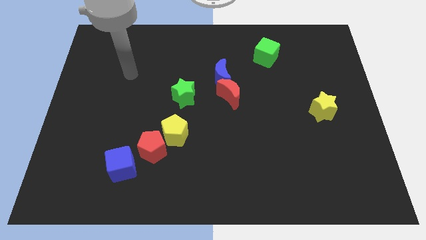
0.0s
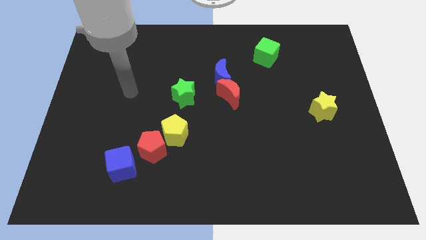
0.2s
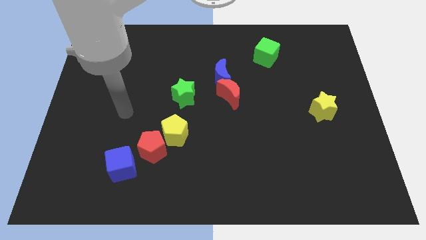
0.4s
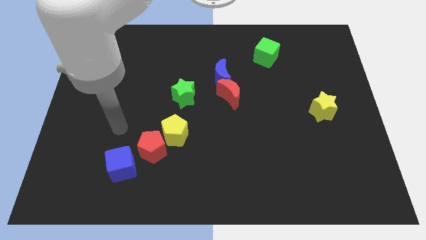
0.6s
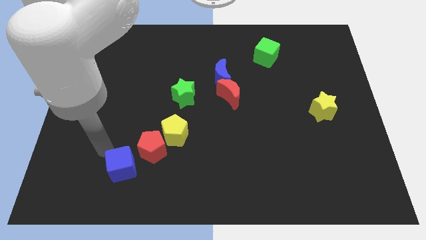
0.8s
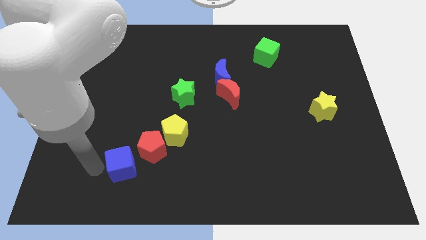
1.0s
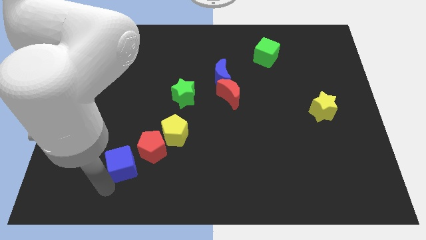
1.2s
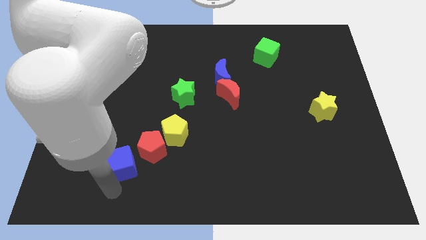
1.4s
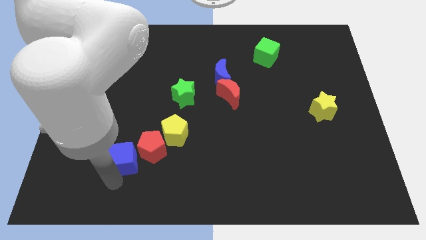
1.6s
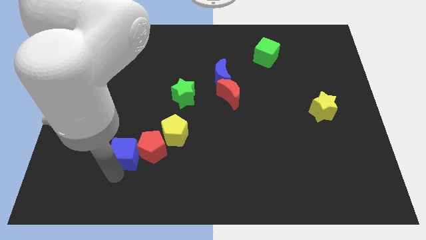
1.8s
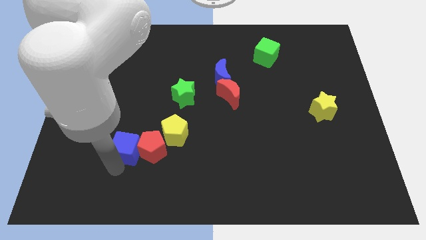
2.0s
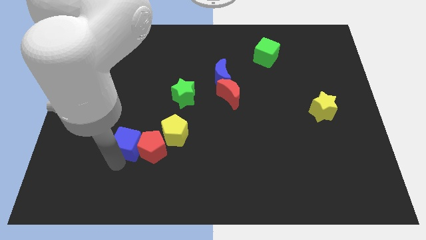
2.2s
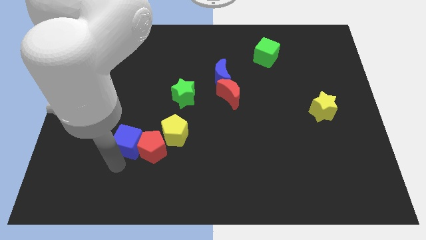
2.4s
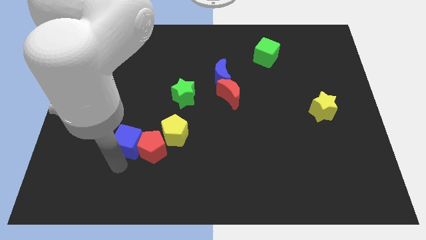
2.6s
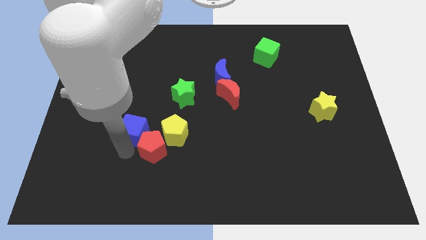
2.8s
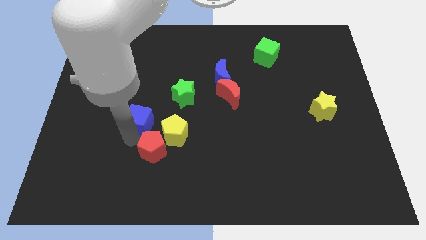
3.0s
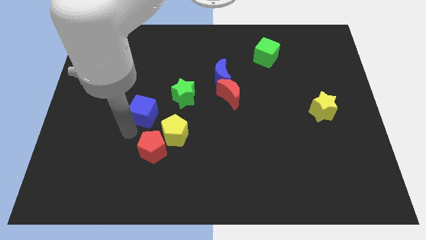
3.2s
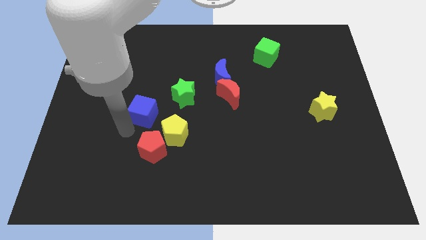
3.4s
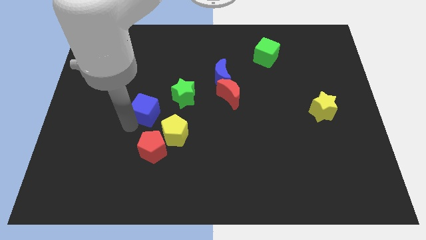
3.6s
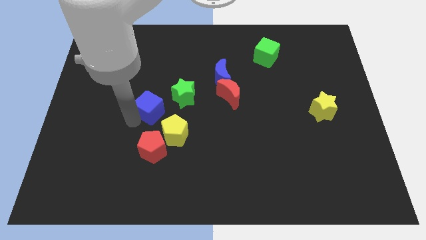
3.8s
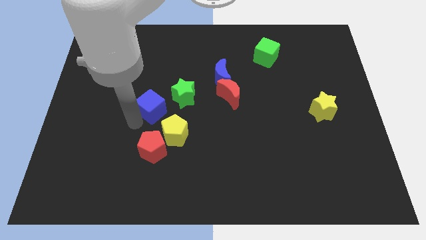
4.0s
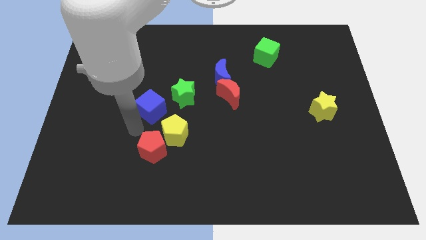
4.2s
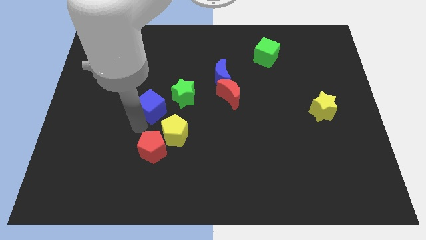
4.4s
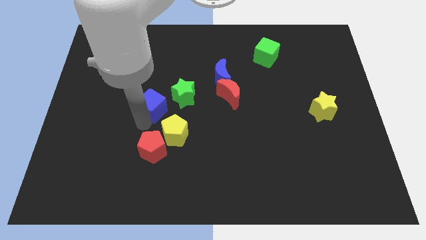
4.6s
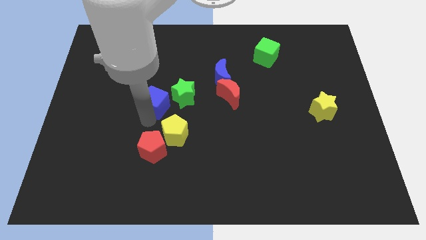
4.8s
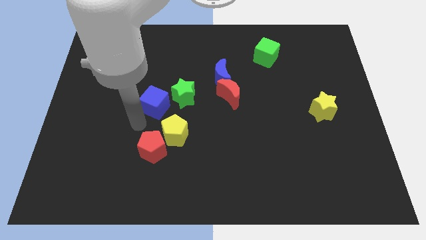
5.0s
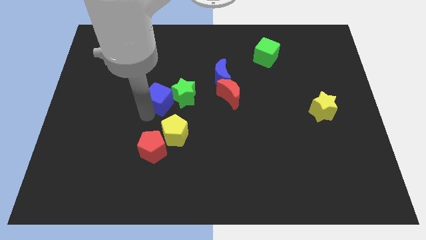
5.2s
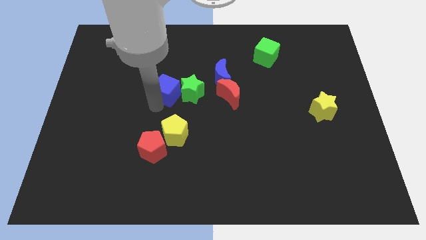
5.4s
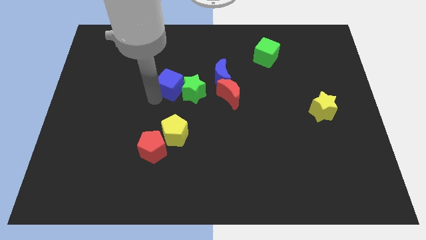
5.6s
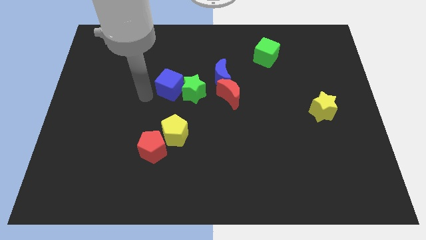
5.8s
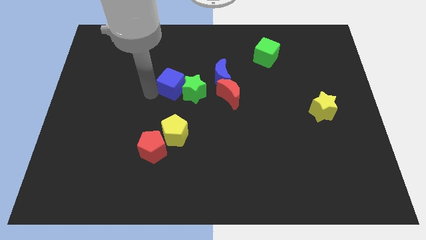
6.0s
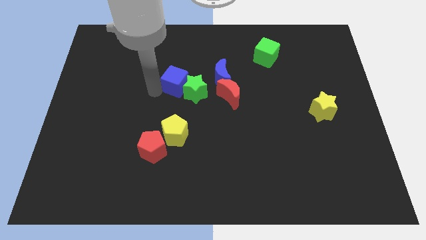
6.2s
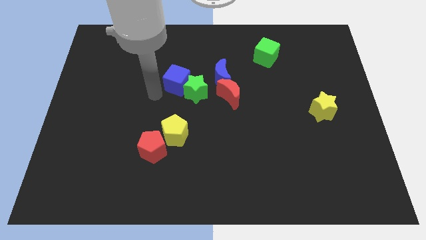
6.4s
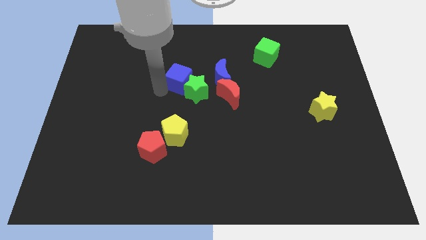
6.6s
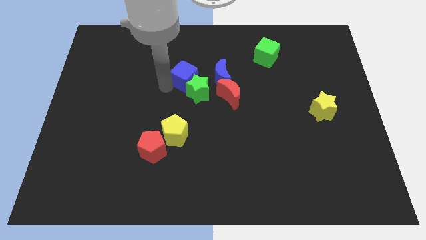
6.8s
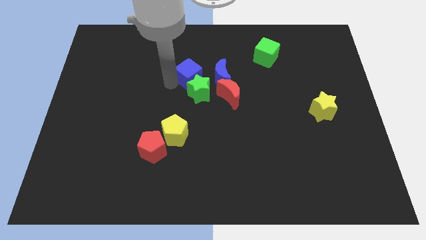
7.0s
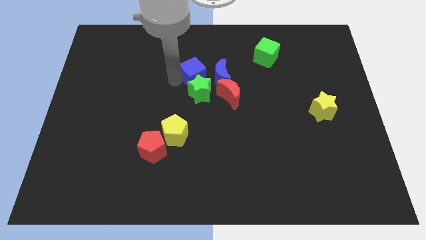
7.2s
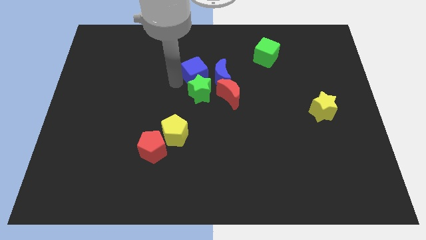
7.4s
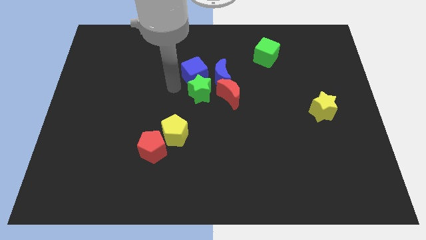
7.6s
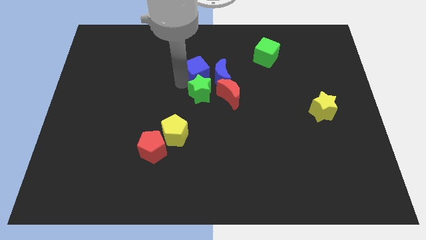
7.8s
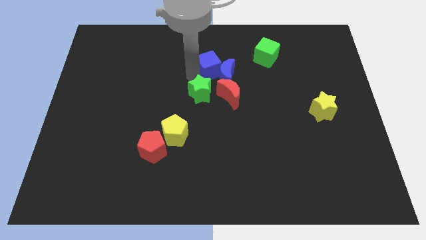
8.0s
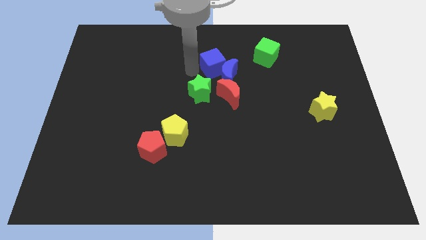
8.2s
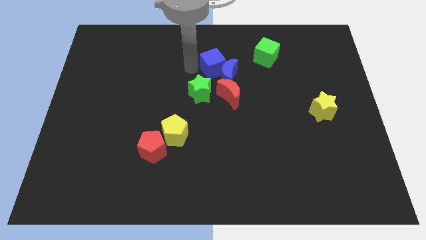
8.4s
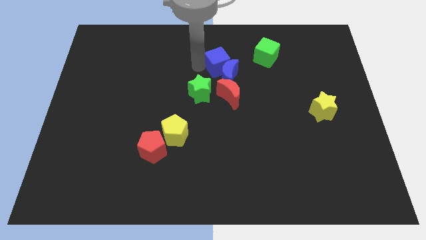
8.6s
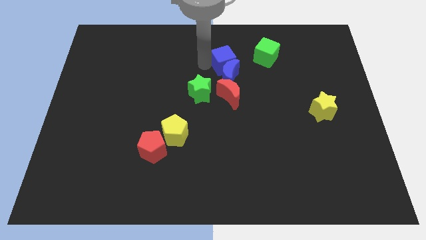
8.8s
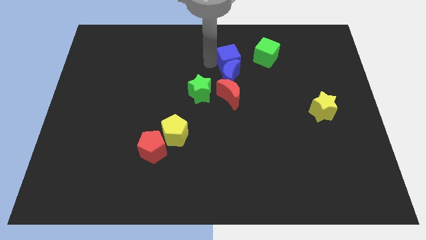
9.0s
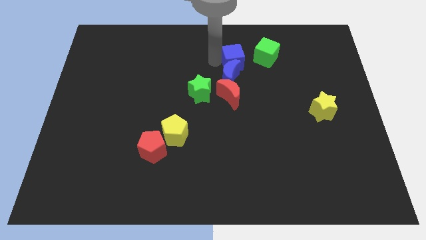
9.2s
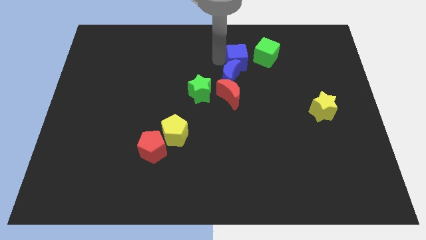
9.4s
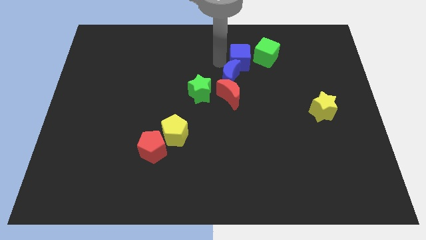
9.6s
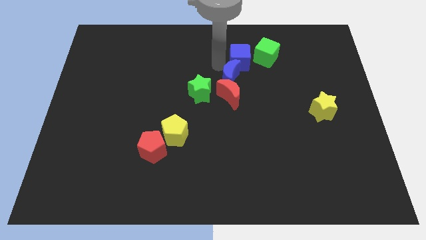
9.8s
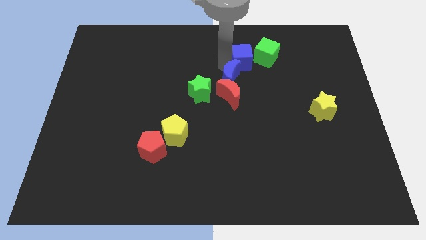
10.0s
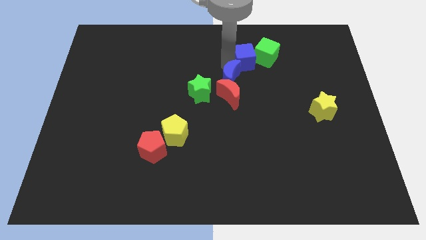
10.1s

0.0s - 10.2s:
slide the blue cube next to the green cube

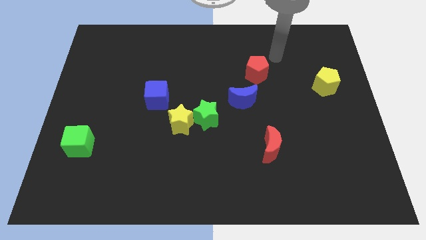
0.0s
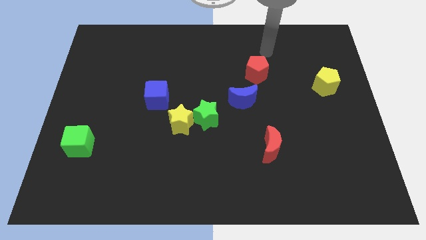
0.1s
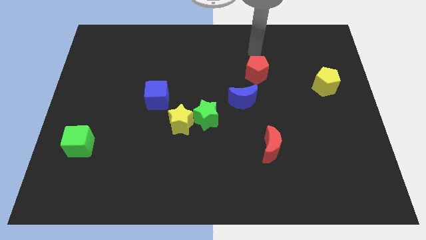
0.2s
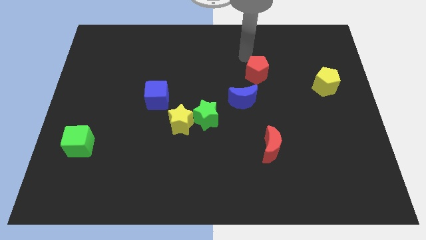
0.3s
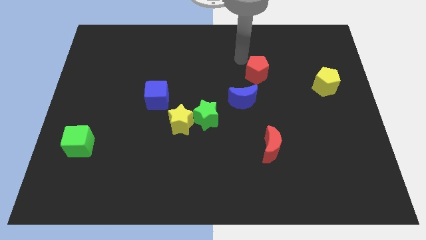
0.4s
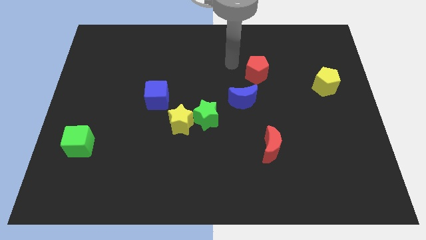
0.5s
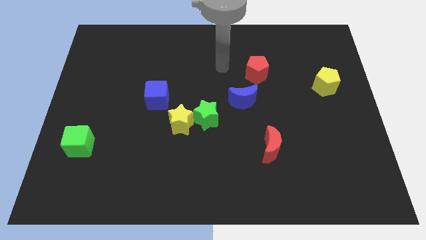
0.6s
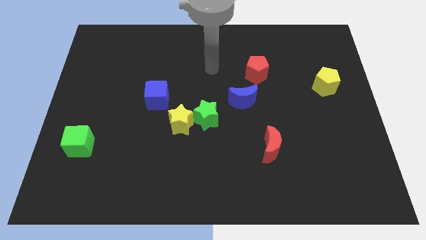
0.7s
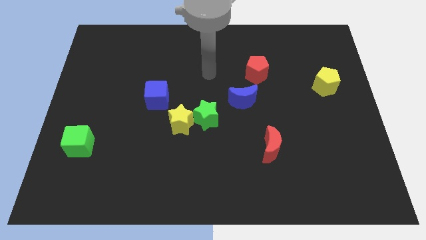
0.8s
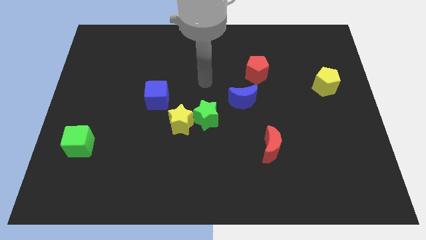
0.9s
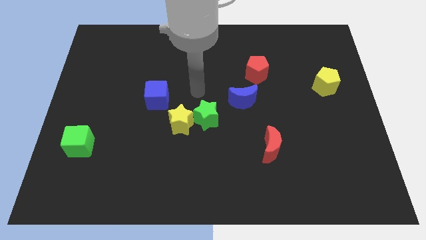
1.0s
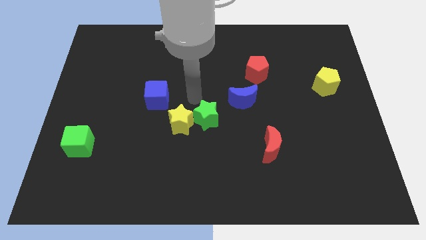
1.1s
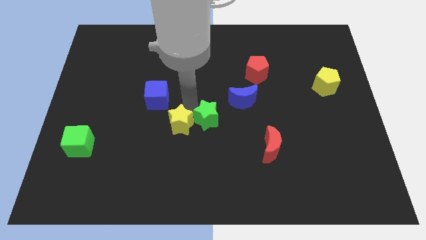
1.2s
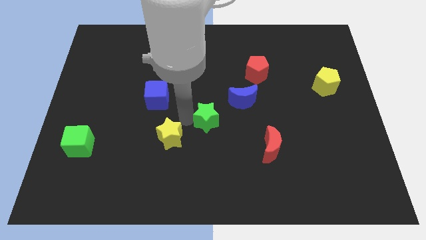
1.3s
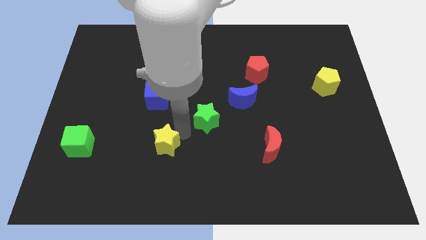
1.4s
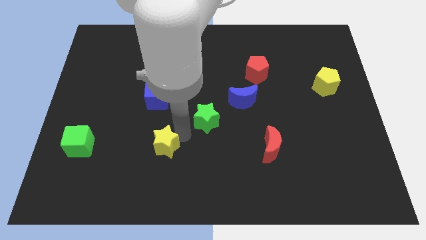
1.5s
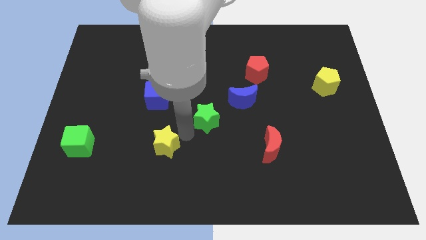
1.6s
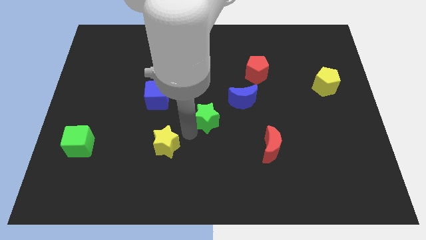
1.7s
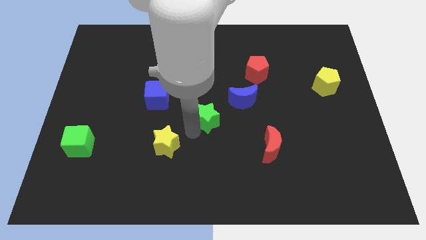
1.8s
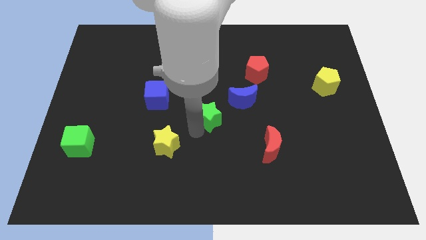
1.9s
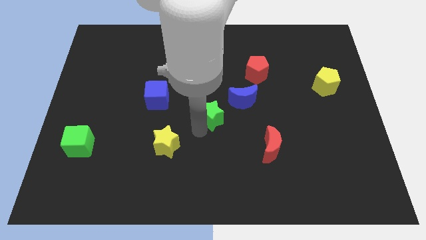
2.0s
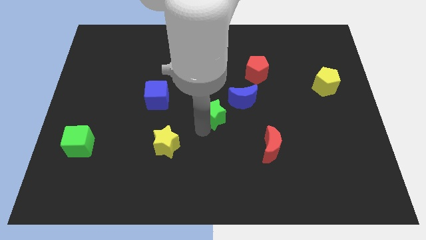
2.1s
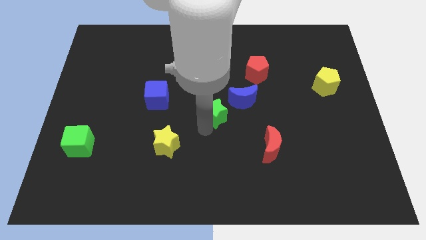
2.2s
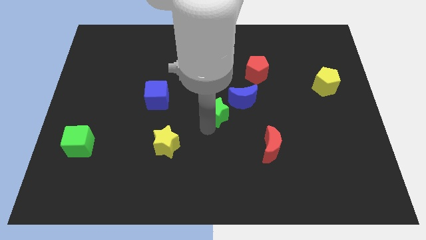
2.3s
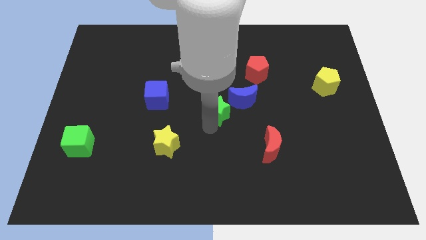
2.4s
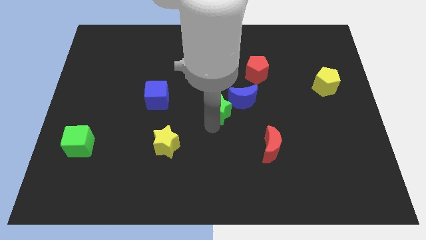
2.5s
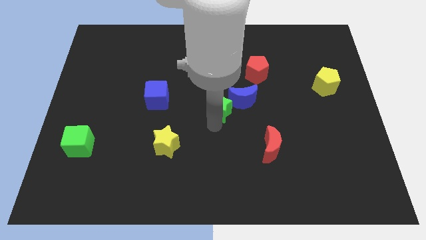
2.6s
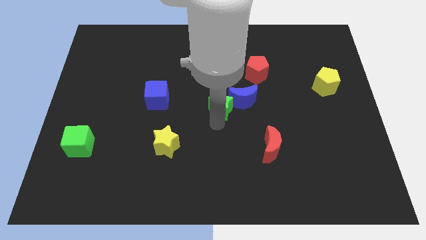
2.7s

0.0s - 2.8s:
slide the green star close to the blue moon
